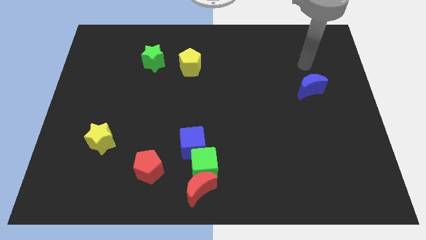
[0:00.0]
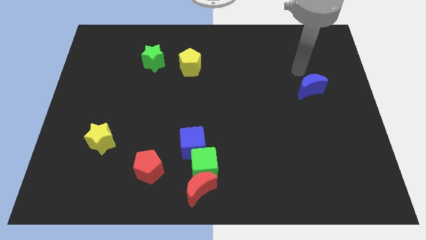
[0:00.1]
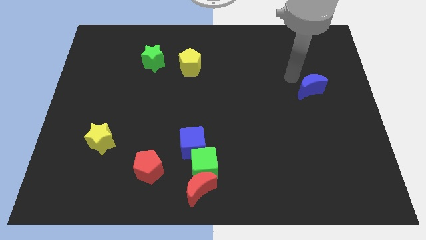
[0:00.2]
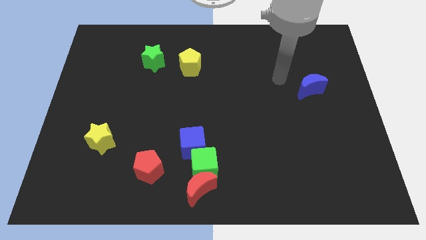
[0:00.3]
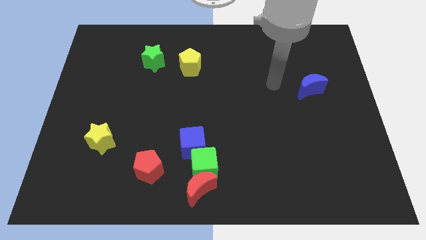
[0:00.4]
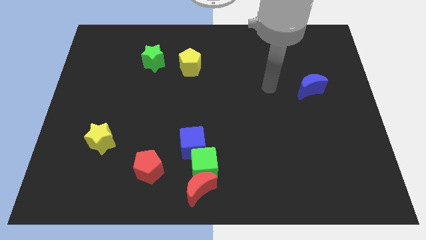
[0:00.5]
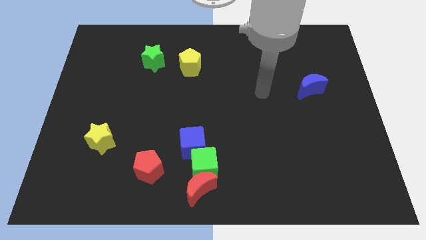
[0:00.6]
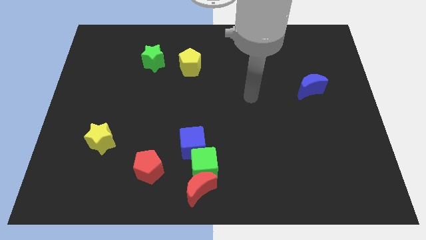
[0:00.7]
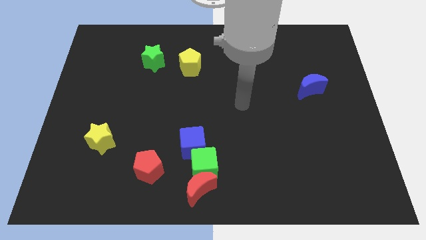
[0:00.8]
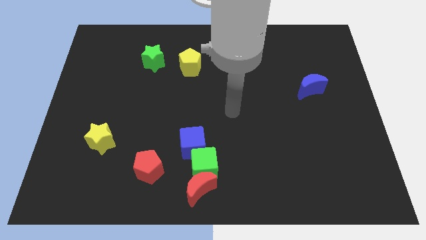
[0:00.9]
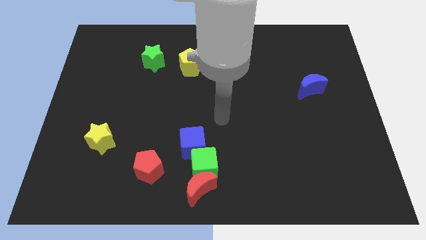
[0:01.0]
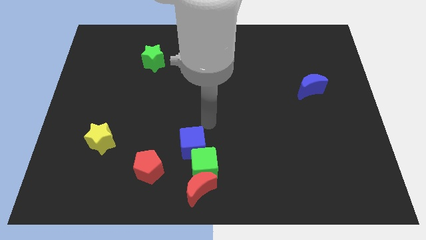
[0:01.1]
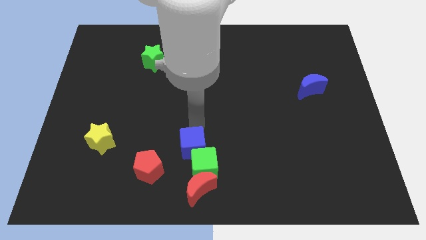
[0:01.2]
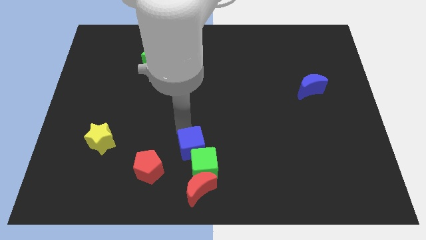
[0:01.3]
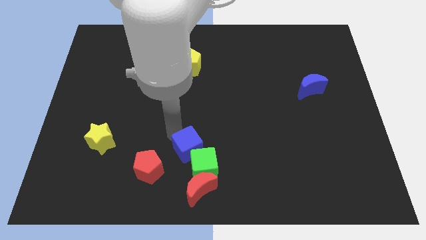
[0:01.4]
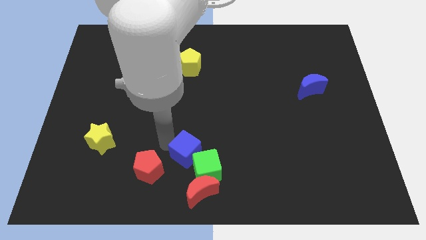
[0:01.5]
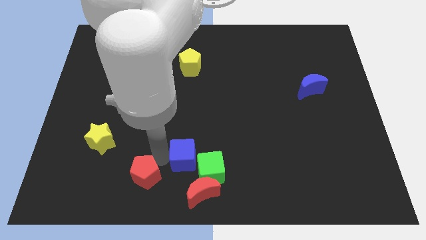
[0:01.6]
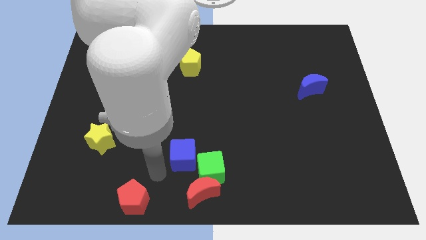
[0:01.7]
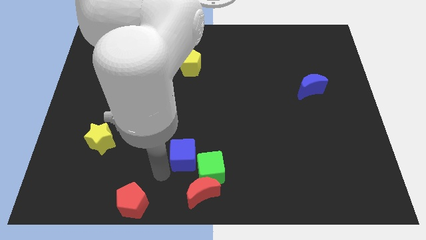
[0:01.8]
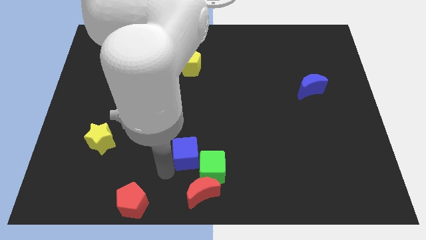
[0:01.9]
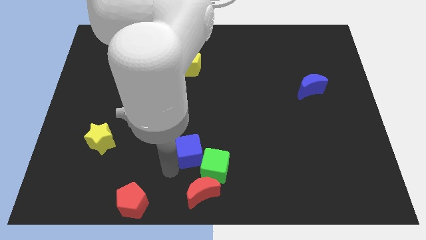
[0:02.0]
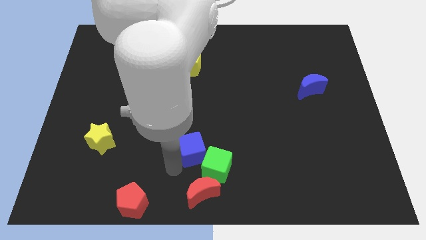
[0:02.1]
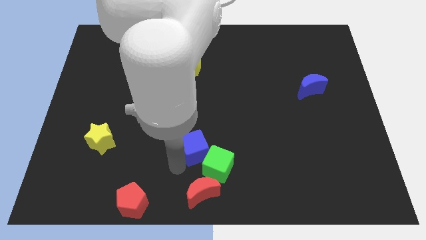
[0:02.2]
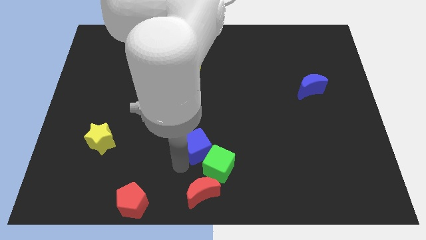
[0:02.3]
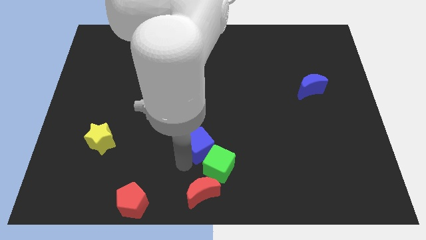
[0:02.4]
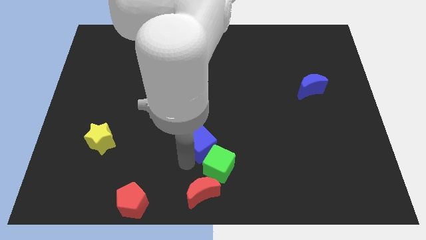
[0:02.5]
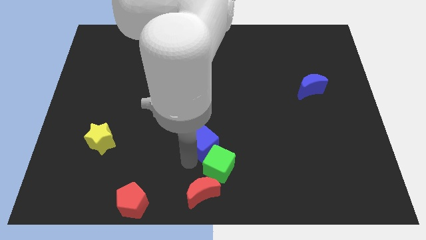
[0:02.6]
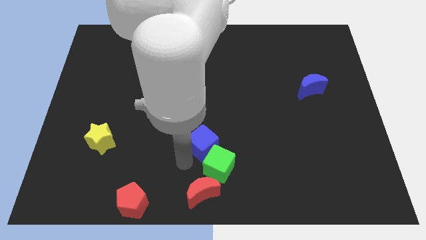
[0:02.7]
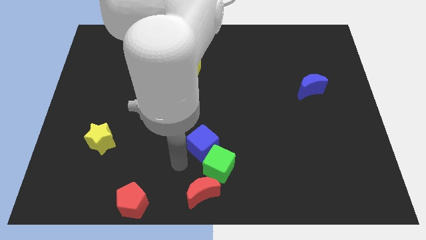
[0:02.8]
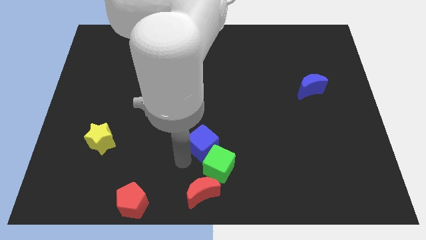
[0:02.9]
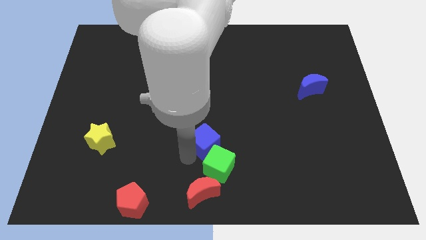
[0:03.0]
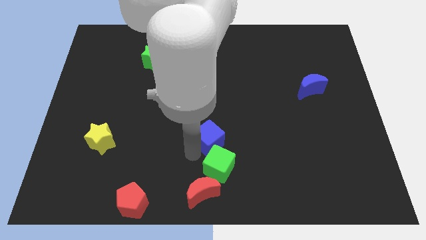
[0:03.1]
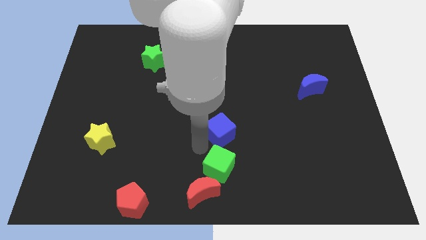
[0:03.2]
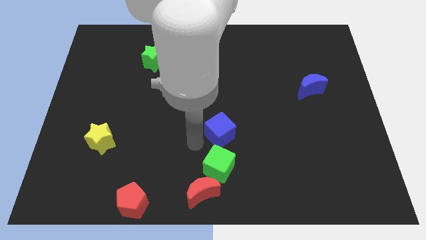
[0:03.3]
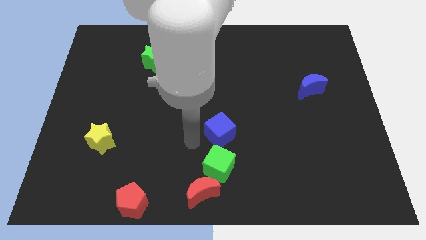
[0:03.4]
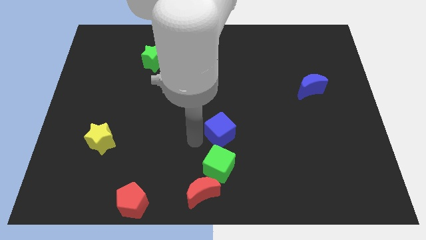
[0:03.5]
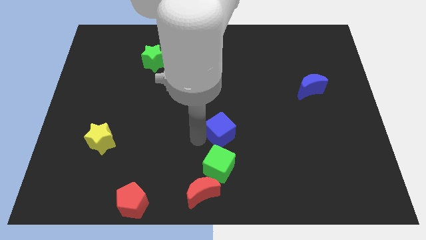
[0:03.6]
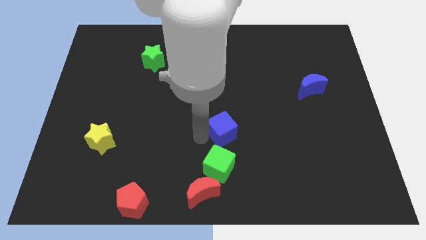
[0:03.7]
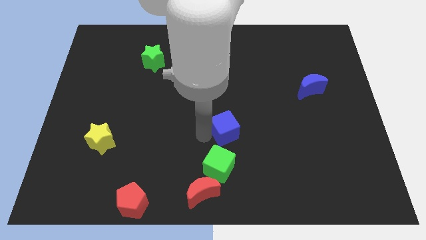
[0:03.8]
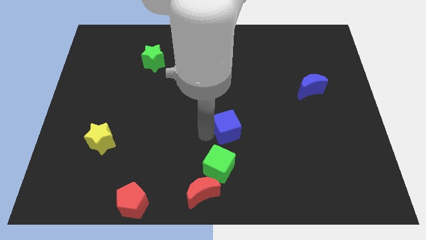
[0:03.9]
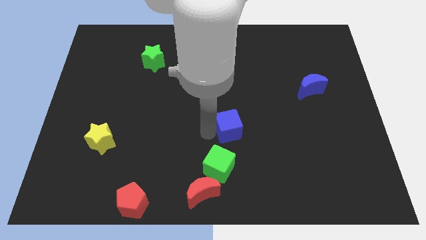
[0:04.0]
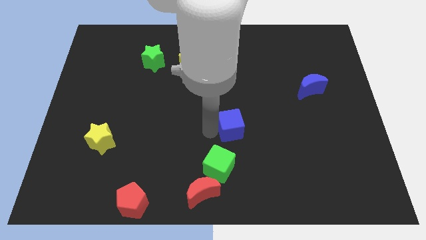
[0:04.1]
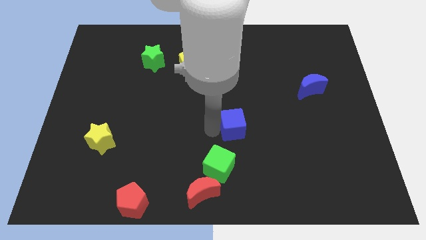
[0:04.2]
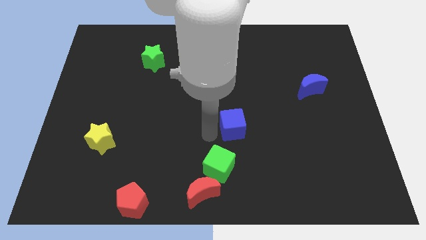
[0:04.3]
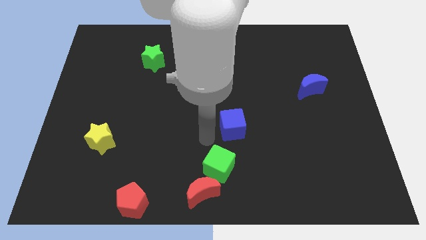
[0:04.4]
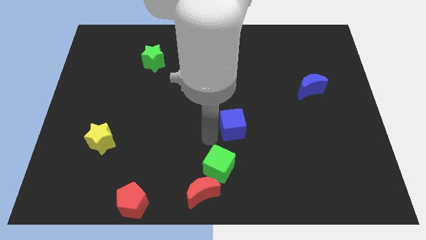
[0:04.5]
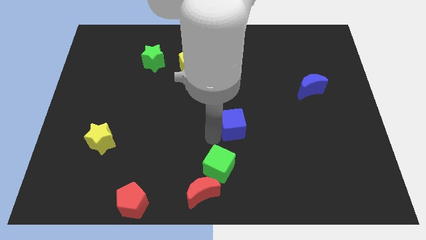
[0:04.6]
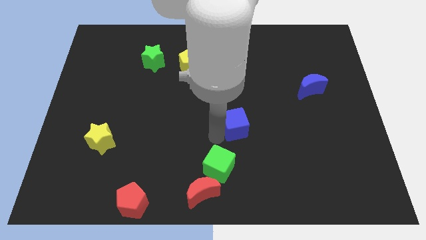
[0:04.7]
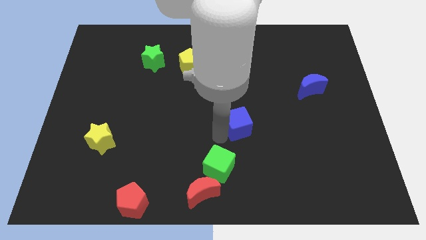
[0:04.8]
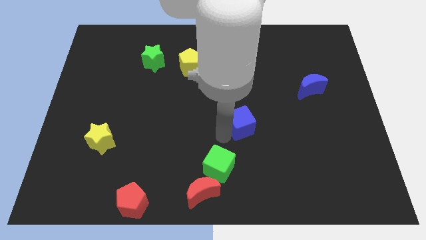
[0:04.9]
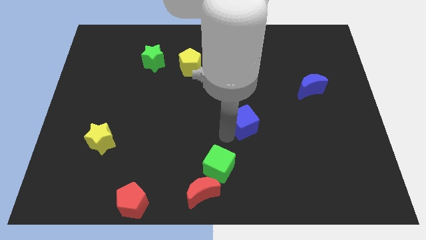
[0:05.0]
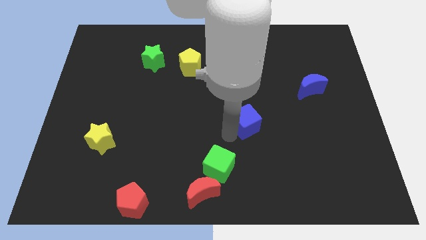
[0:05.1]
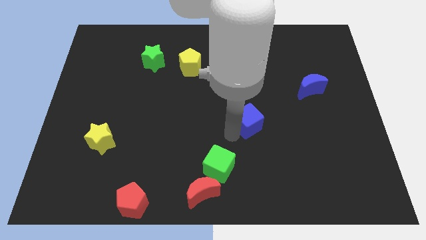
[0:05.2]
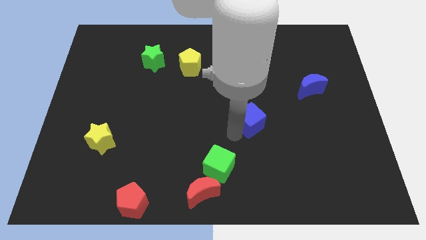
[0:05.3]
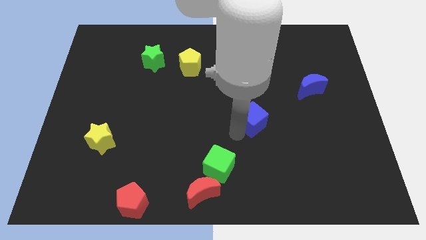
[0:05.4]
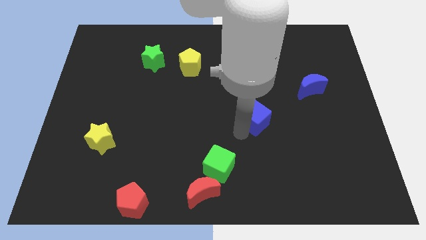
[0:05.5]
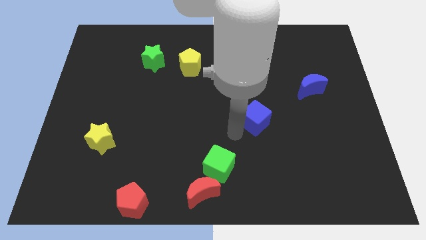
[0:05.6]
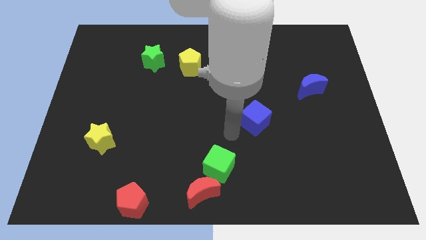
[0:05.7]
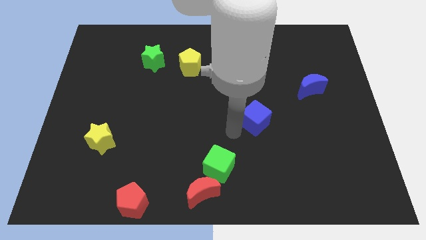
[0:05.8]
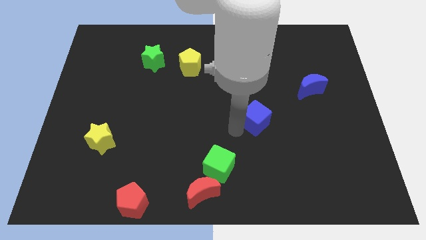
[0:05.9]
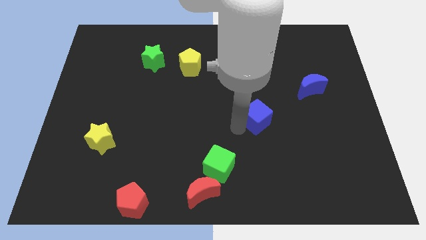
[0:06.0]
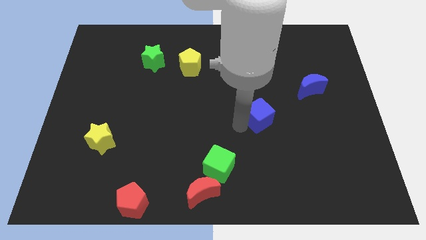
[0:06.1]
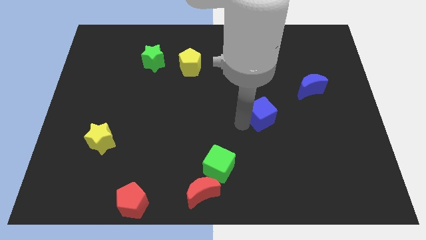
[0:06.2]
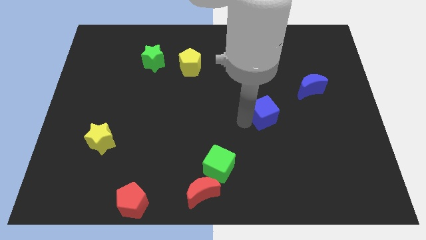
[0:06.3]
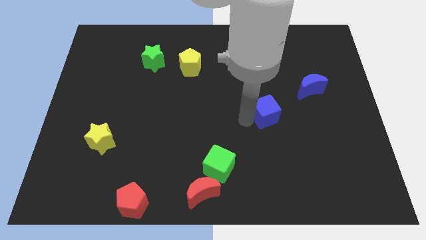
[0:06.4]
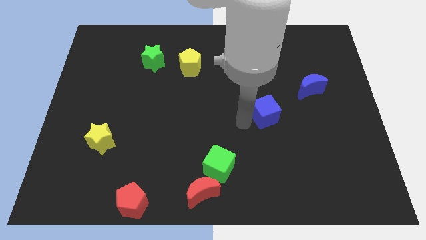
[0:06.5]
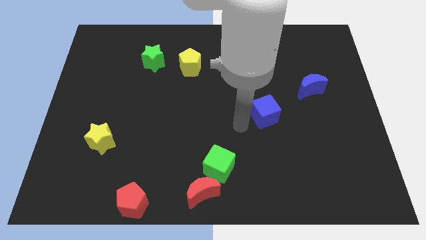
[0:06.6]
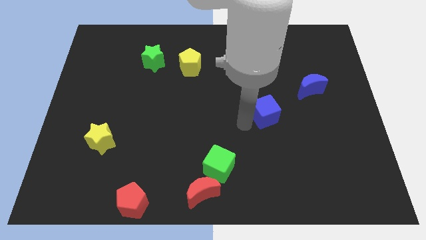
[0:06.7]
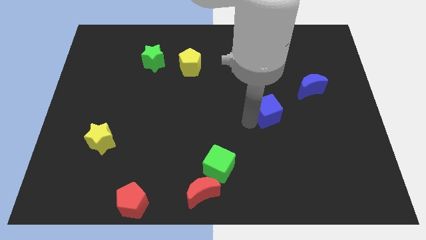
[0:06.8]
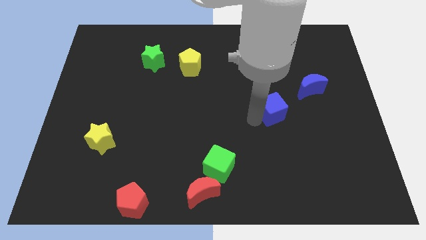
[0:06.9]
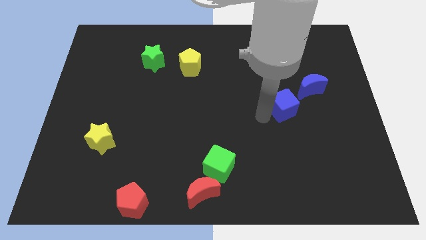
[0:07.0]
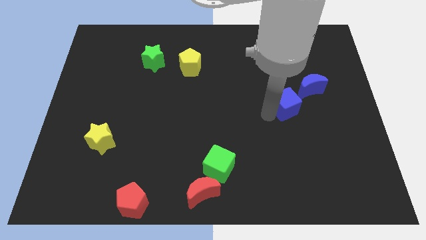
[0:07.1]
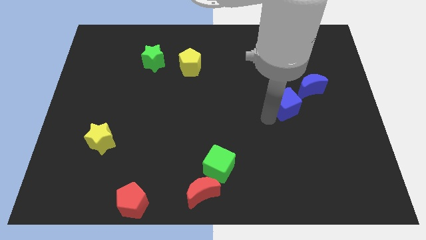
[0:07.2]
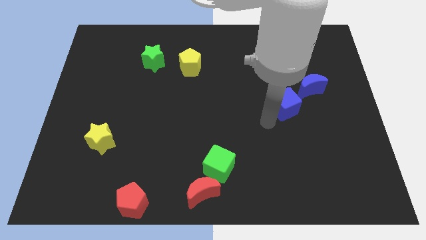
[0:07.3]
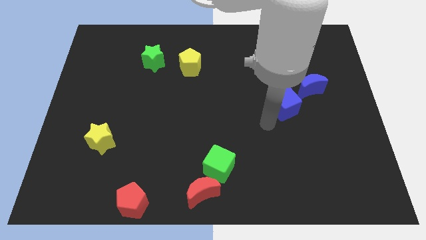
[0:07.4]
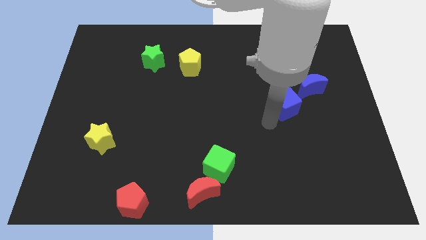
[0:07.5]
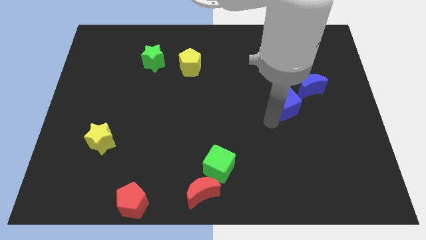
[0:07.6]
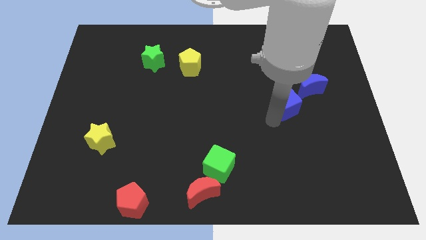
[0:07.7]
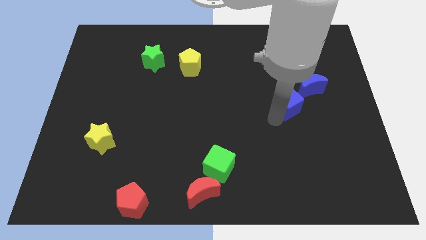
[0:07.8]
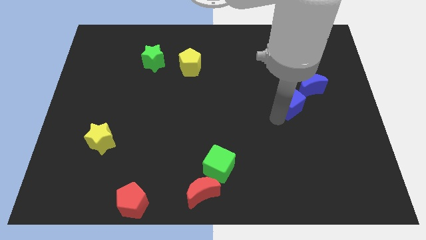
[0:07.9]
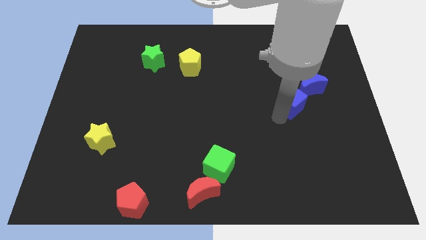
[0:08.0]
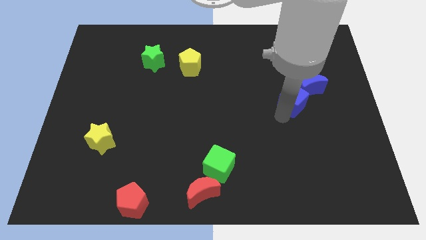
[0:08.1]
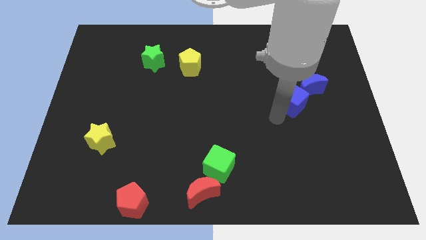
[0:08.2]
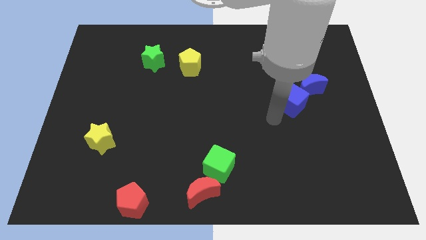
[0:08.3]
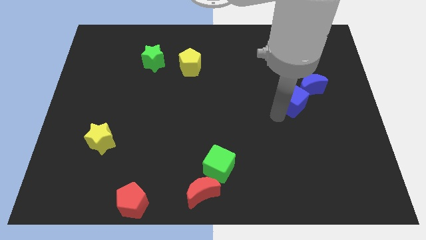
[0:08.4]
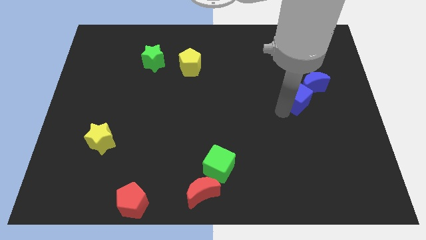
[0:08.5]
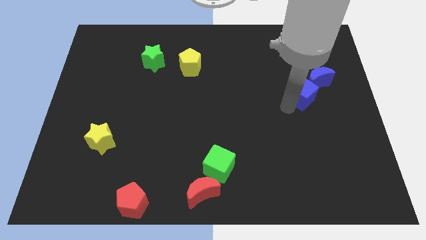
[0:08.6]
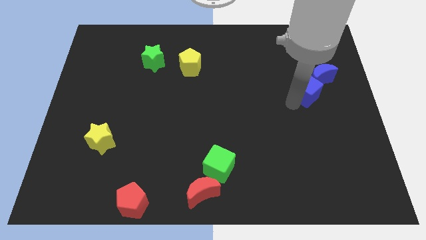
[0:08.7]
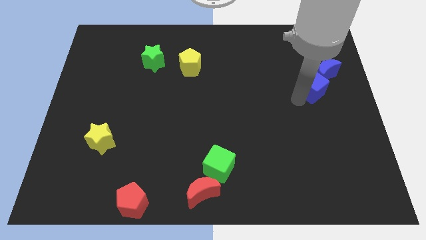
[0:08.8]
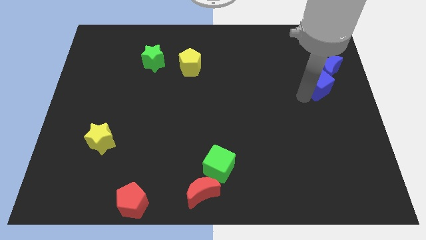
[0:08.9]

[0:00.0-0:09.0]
push the blue cube to the blue moon
